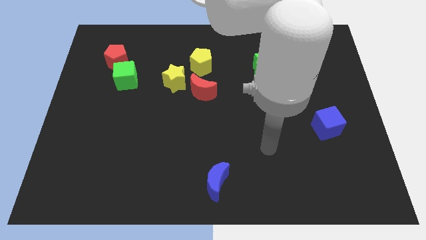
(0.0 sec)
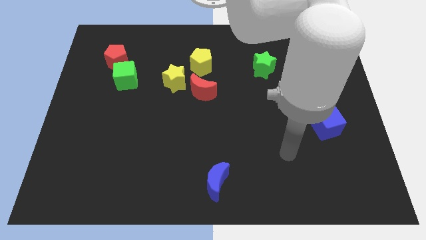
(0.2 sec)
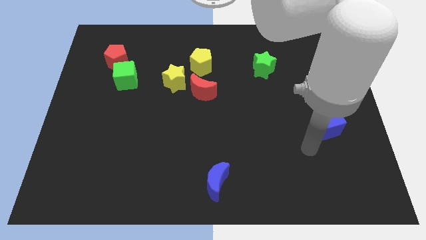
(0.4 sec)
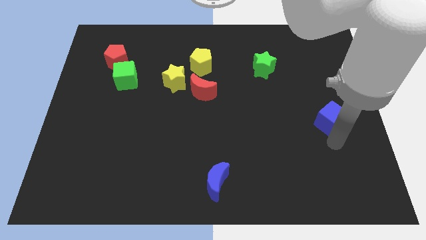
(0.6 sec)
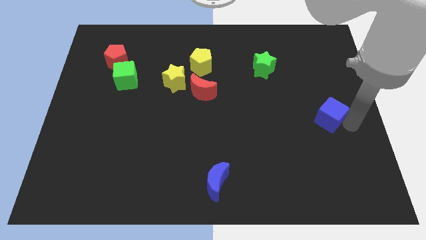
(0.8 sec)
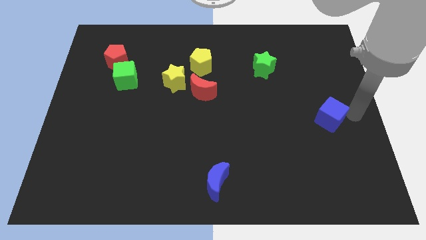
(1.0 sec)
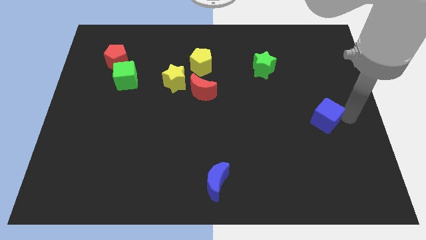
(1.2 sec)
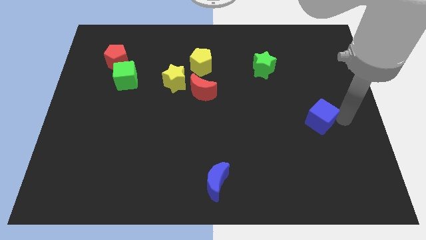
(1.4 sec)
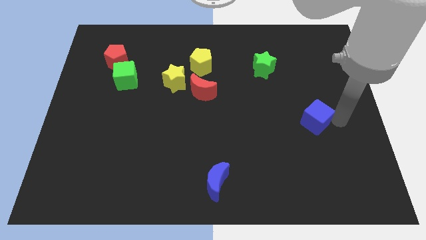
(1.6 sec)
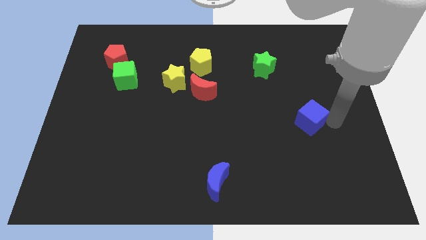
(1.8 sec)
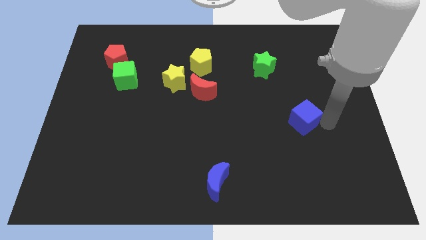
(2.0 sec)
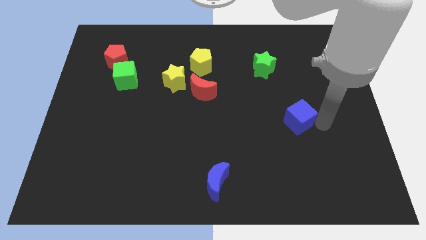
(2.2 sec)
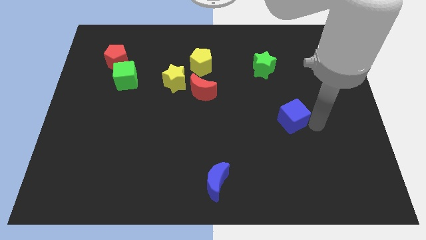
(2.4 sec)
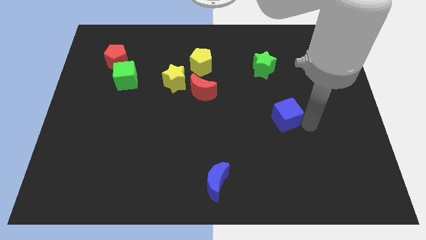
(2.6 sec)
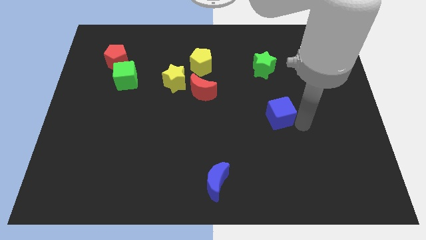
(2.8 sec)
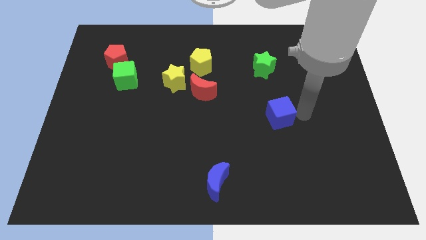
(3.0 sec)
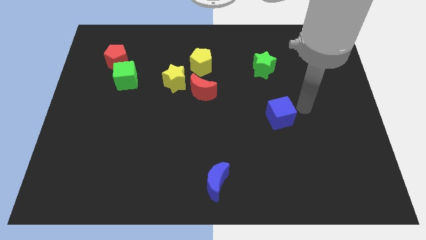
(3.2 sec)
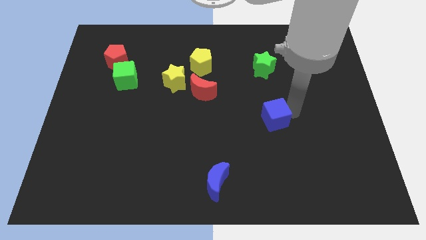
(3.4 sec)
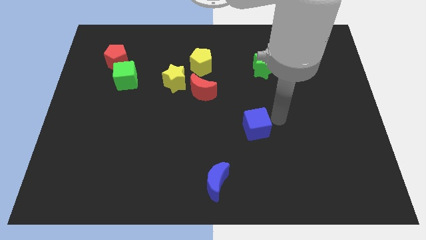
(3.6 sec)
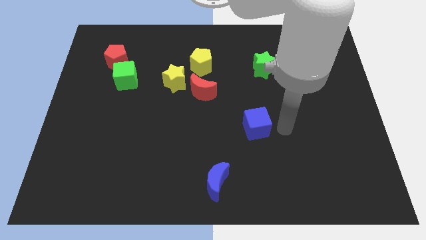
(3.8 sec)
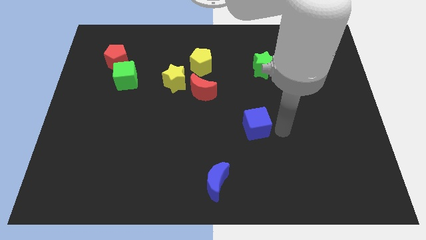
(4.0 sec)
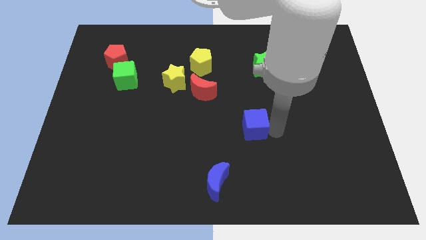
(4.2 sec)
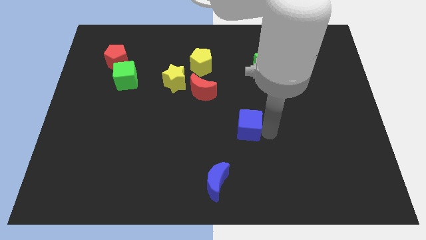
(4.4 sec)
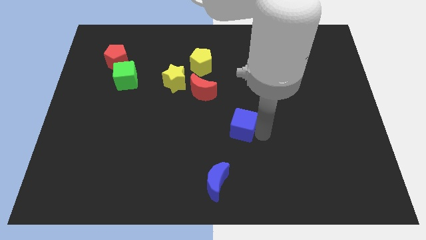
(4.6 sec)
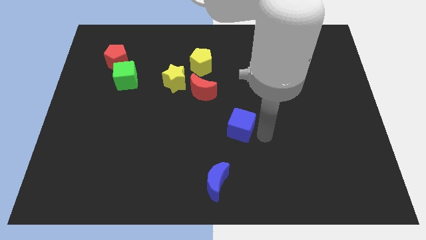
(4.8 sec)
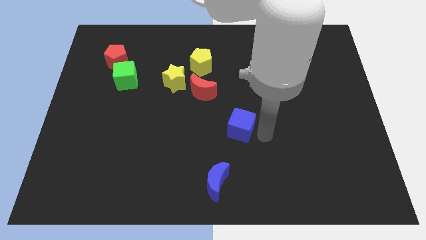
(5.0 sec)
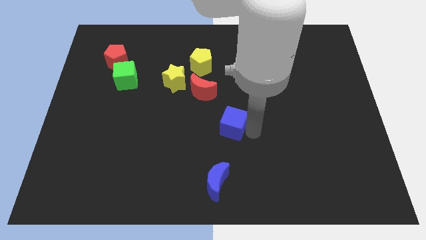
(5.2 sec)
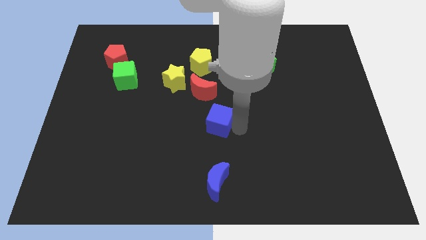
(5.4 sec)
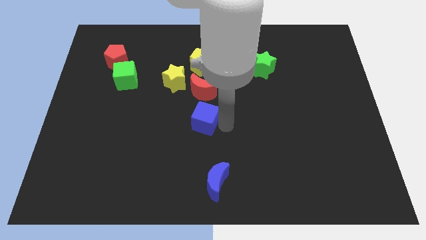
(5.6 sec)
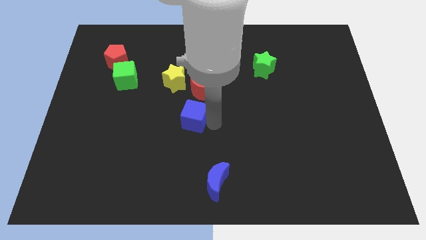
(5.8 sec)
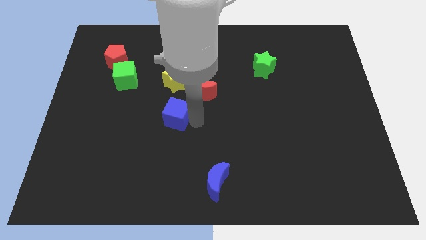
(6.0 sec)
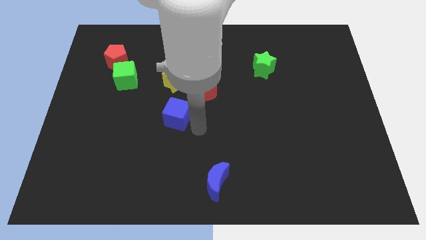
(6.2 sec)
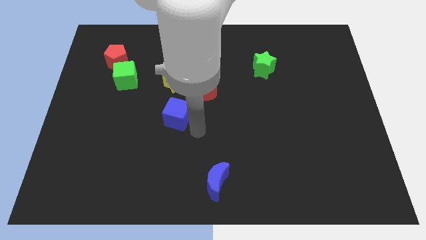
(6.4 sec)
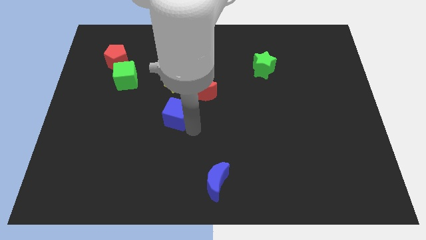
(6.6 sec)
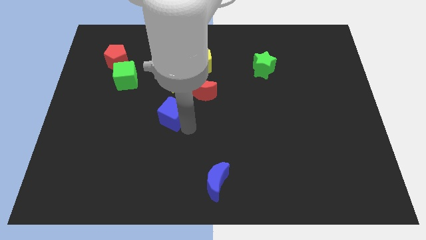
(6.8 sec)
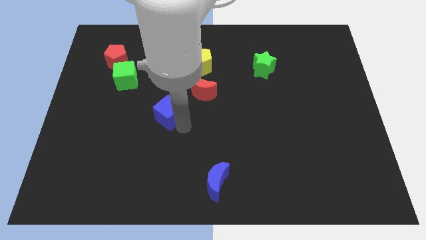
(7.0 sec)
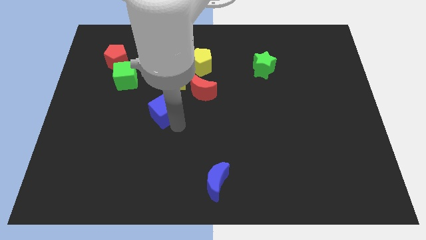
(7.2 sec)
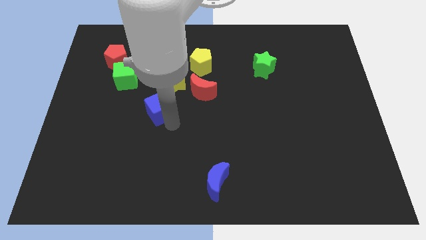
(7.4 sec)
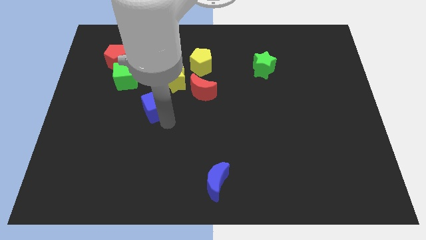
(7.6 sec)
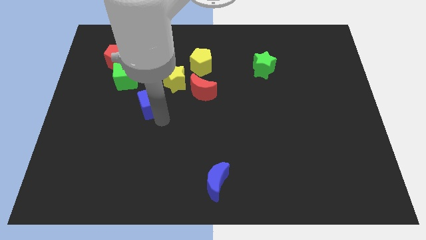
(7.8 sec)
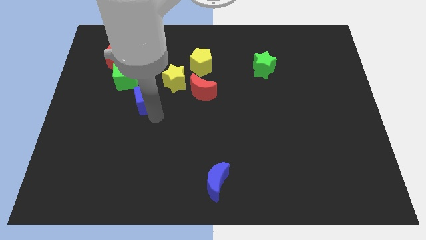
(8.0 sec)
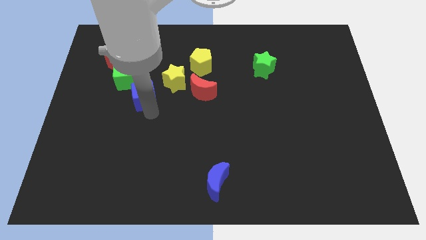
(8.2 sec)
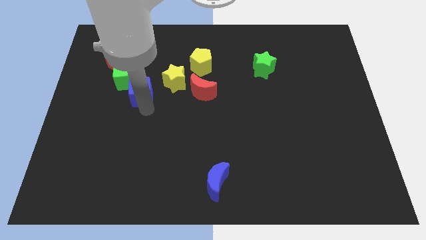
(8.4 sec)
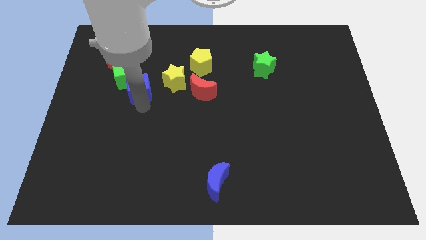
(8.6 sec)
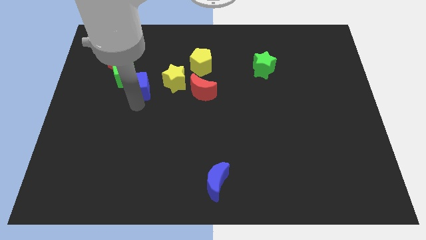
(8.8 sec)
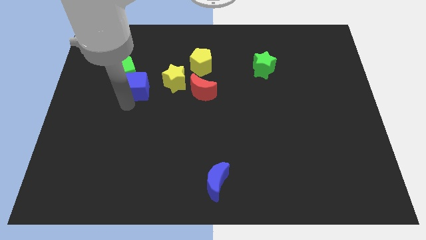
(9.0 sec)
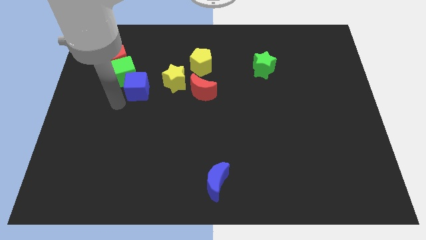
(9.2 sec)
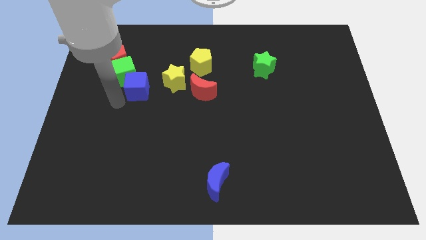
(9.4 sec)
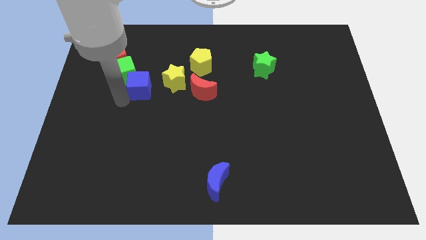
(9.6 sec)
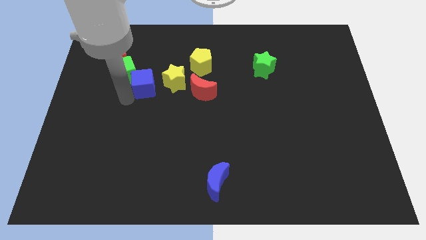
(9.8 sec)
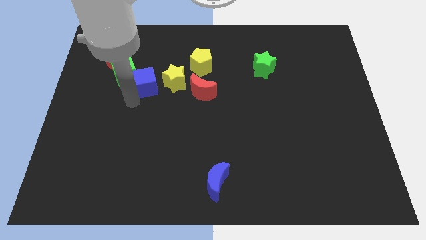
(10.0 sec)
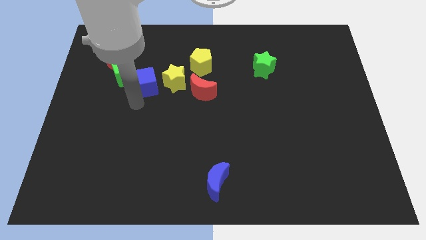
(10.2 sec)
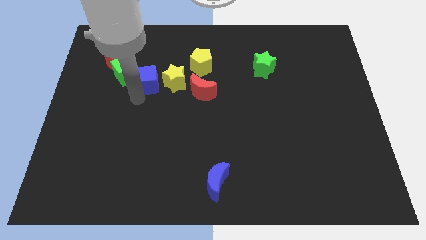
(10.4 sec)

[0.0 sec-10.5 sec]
push the blue cube to the top left side of the yellow star
